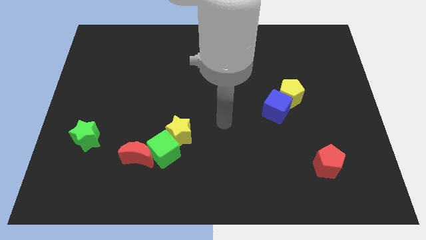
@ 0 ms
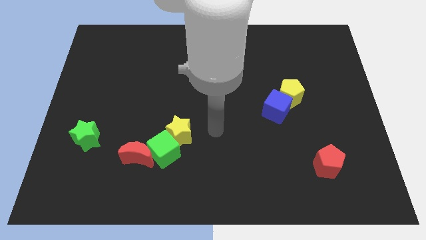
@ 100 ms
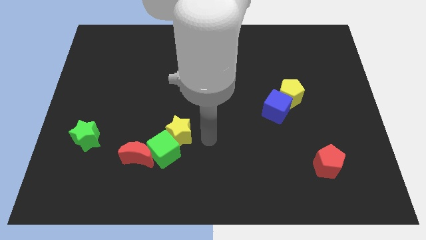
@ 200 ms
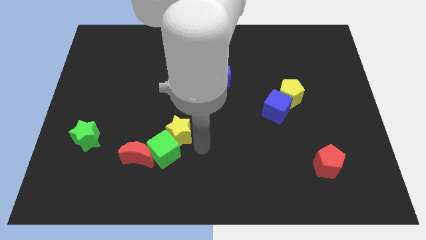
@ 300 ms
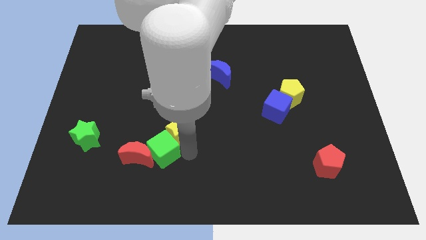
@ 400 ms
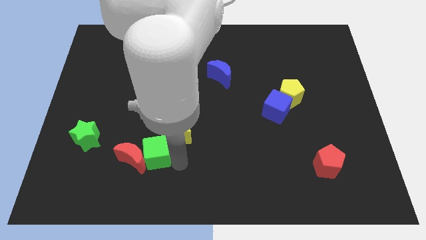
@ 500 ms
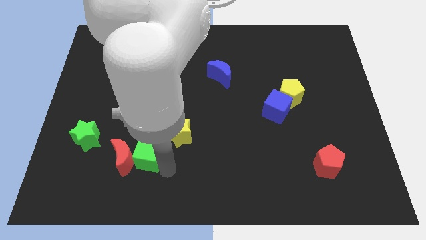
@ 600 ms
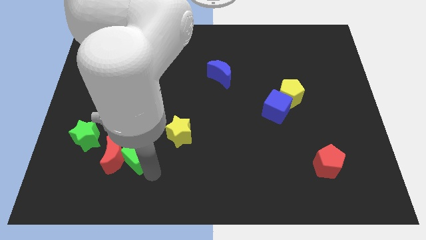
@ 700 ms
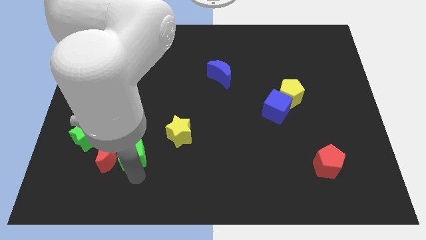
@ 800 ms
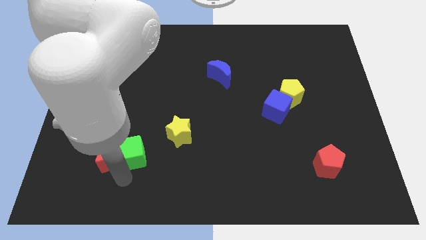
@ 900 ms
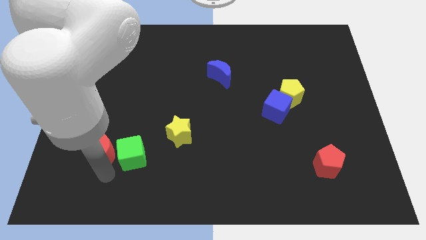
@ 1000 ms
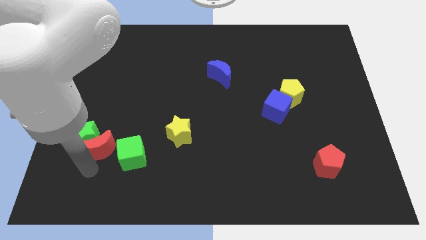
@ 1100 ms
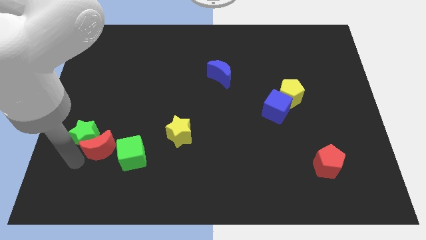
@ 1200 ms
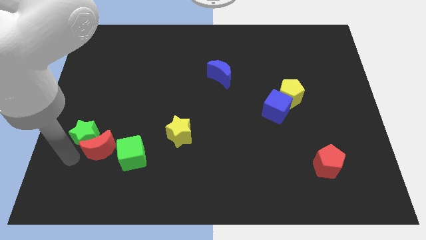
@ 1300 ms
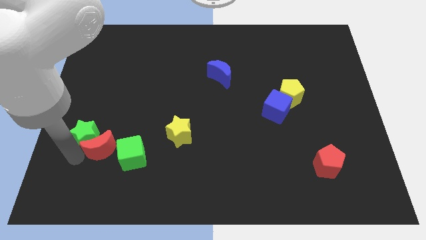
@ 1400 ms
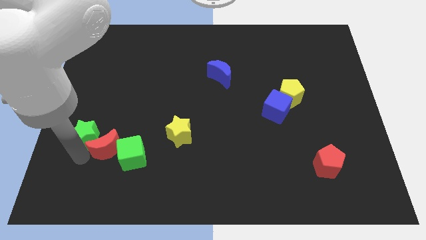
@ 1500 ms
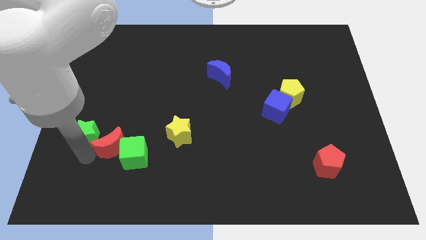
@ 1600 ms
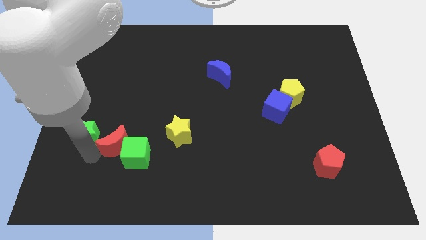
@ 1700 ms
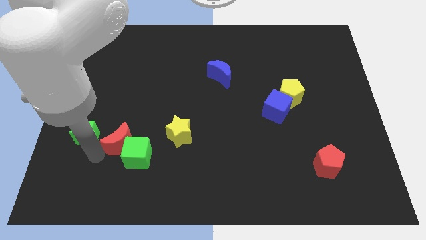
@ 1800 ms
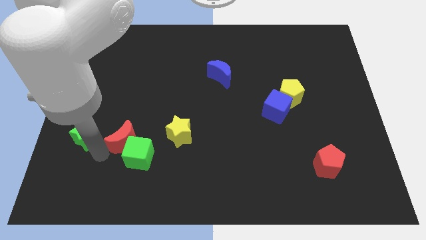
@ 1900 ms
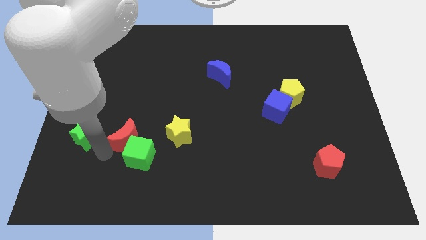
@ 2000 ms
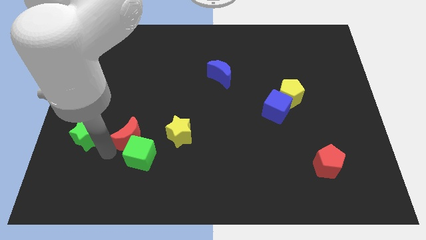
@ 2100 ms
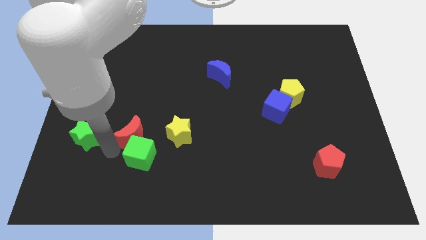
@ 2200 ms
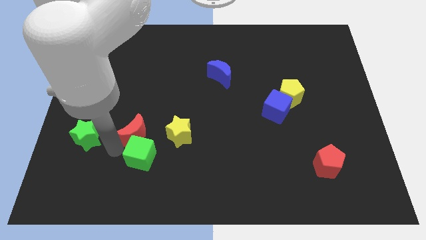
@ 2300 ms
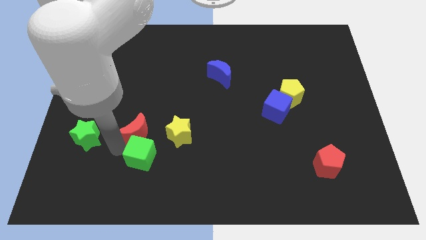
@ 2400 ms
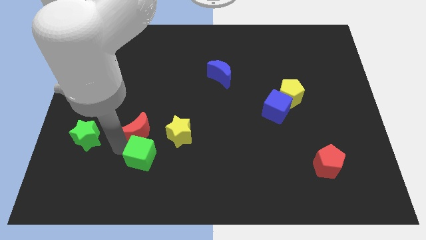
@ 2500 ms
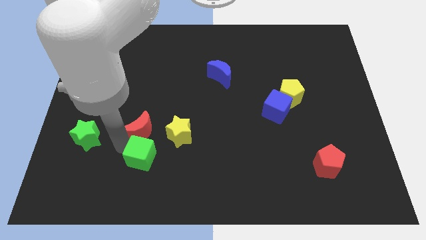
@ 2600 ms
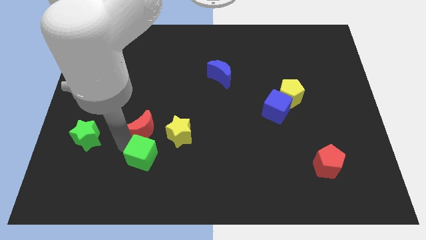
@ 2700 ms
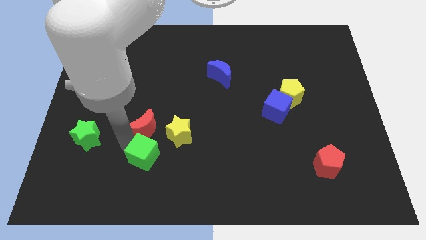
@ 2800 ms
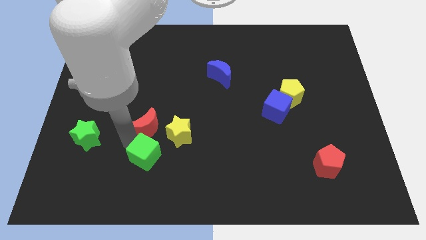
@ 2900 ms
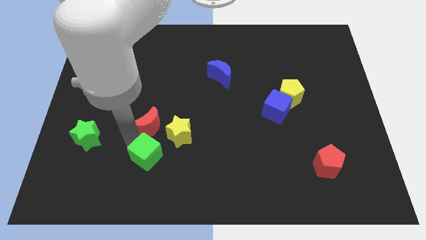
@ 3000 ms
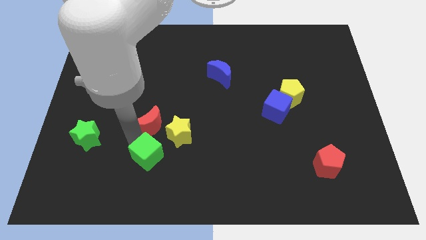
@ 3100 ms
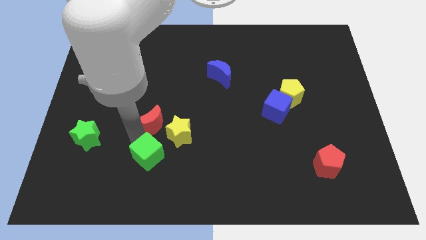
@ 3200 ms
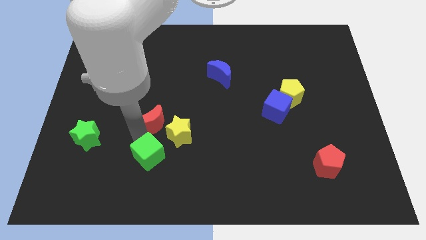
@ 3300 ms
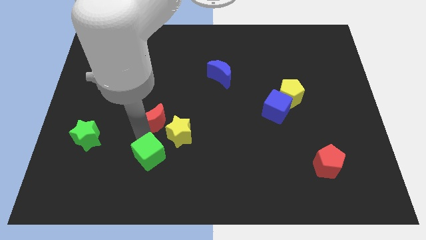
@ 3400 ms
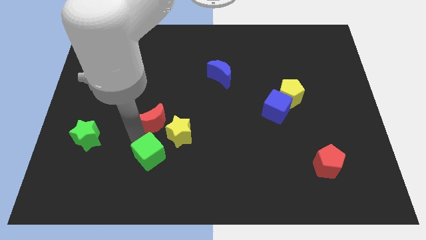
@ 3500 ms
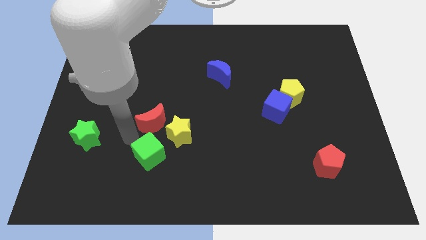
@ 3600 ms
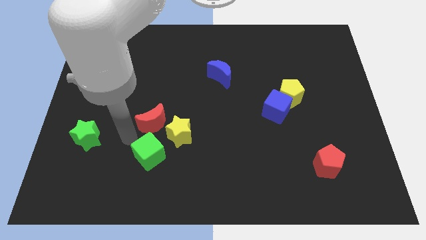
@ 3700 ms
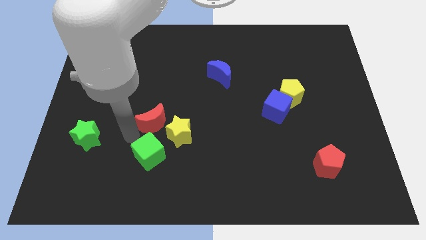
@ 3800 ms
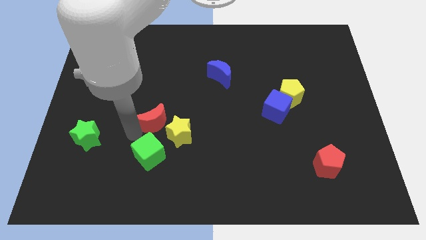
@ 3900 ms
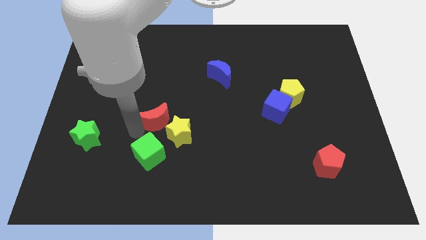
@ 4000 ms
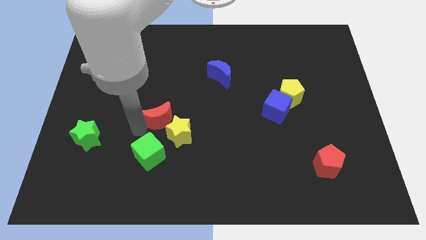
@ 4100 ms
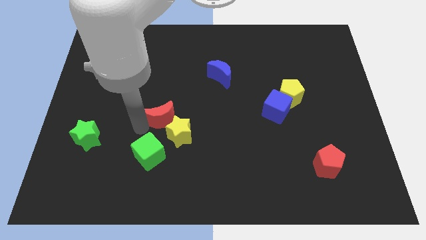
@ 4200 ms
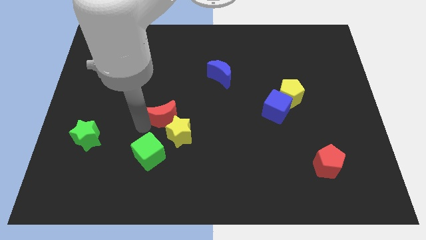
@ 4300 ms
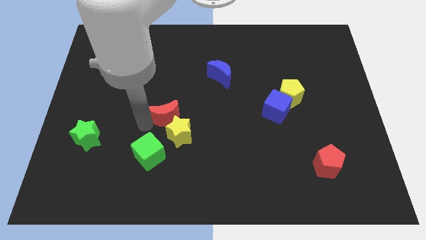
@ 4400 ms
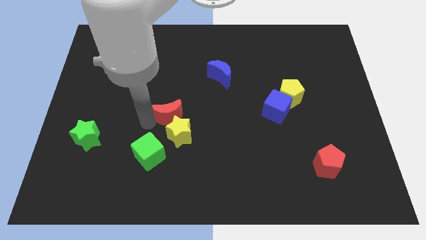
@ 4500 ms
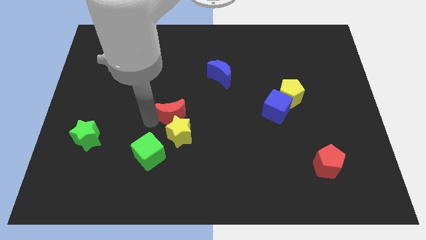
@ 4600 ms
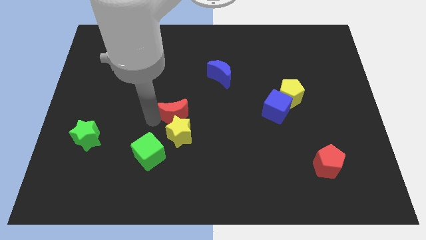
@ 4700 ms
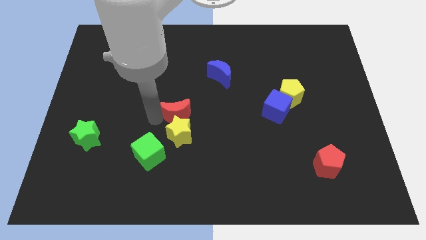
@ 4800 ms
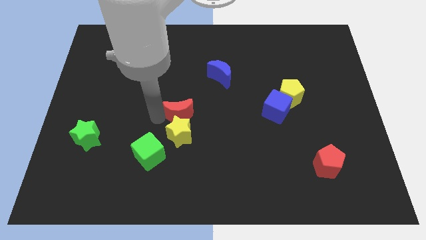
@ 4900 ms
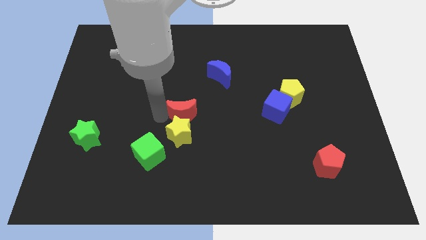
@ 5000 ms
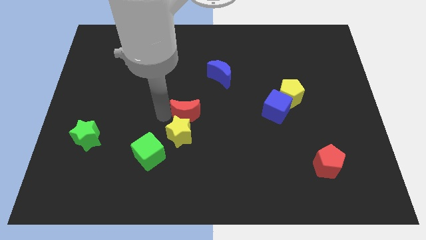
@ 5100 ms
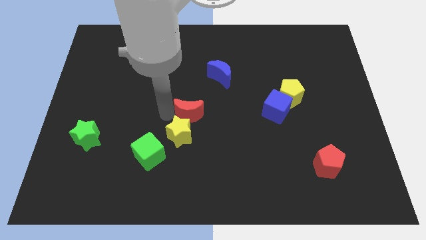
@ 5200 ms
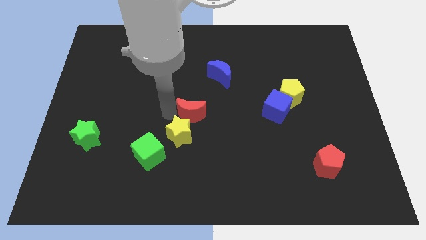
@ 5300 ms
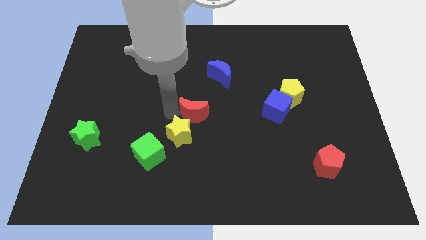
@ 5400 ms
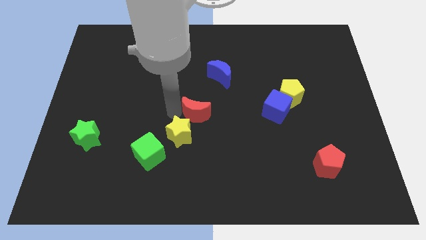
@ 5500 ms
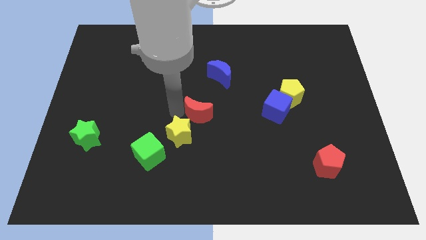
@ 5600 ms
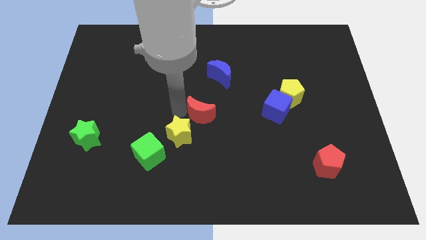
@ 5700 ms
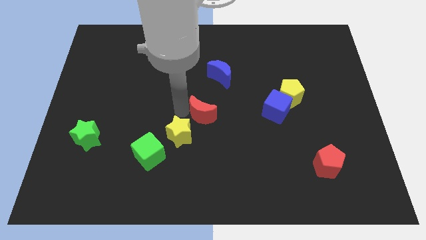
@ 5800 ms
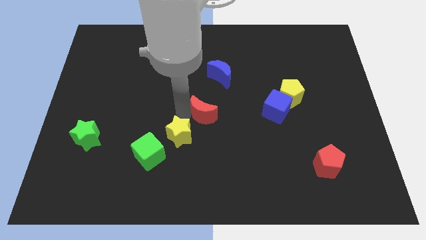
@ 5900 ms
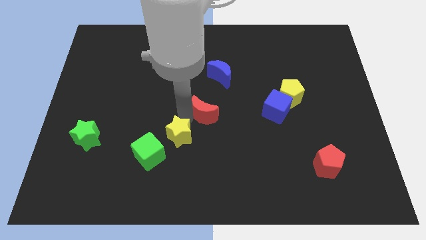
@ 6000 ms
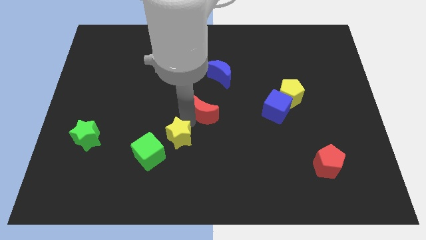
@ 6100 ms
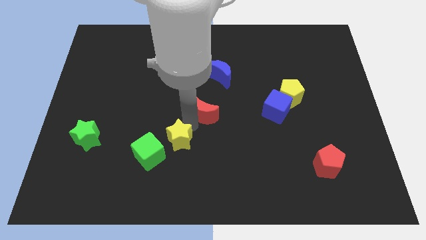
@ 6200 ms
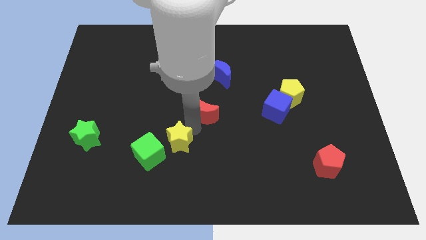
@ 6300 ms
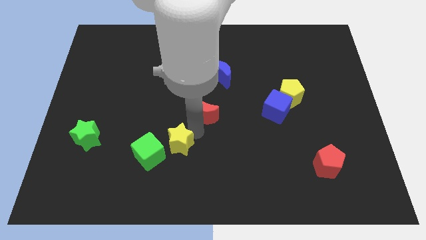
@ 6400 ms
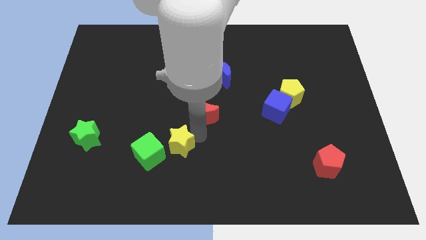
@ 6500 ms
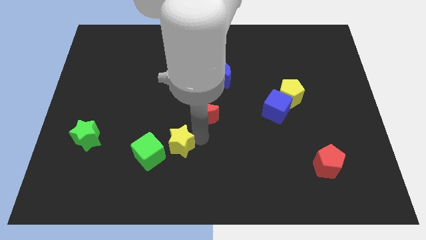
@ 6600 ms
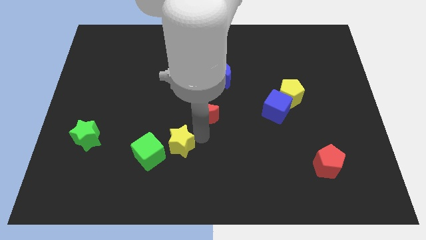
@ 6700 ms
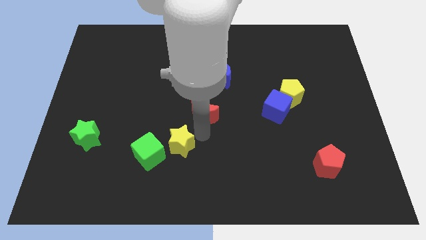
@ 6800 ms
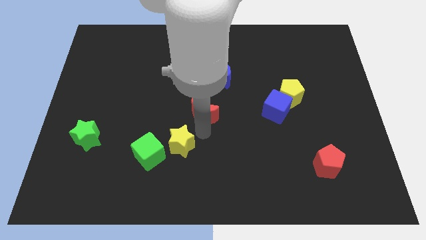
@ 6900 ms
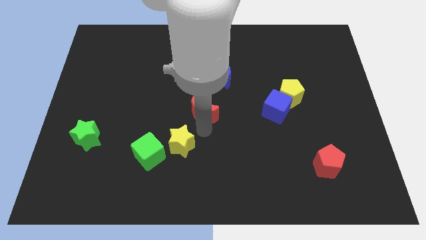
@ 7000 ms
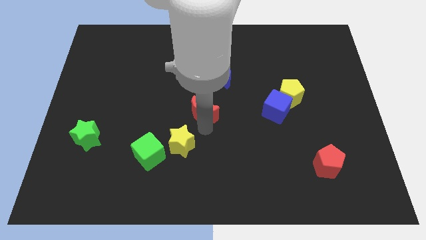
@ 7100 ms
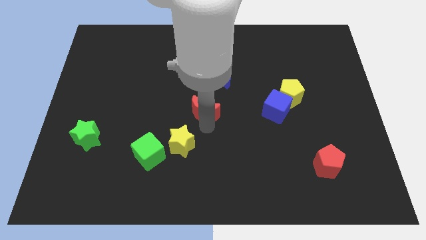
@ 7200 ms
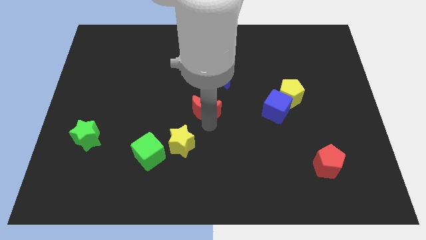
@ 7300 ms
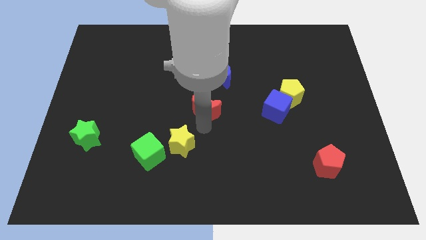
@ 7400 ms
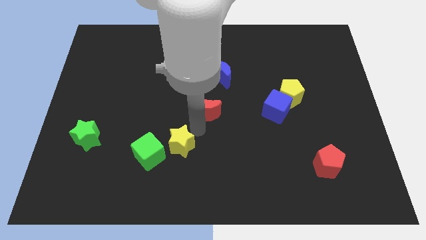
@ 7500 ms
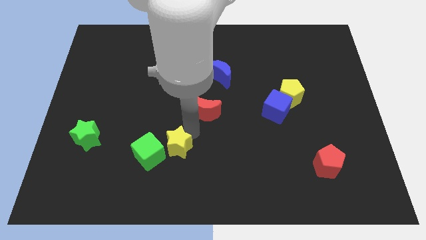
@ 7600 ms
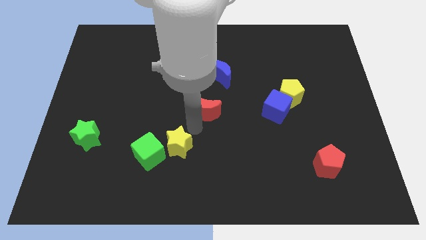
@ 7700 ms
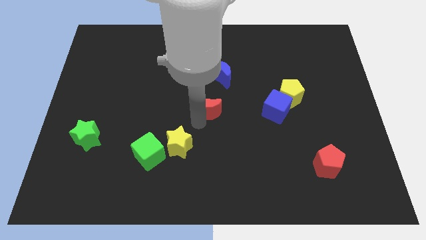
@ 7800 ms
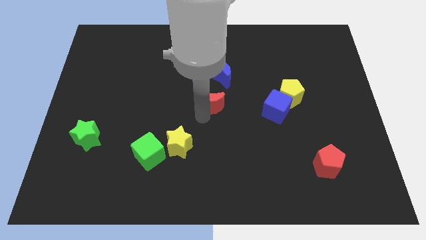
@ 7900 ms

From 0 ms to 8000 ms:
push the red moon up and to the right diagonally
